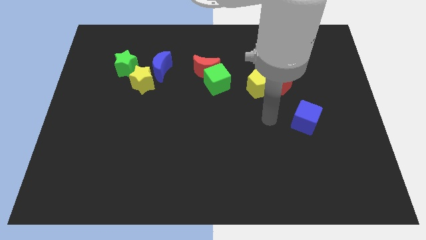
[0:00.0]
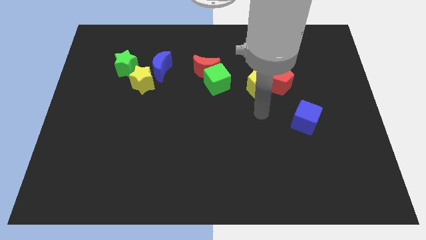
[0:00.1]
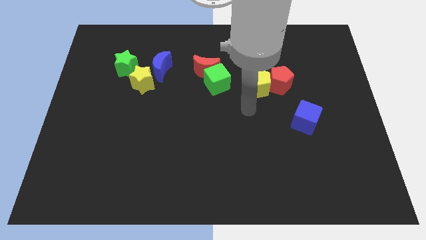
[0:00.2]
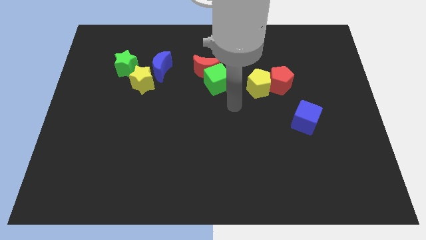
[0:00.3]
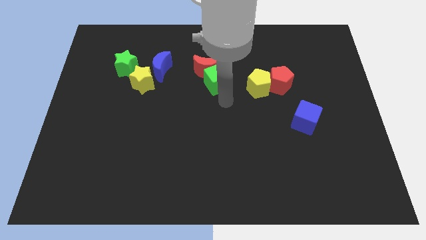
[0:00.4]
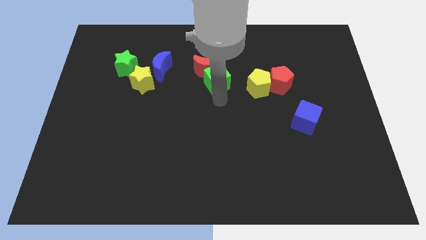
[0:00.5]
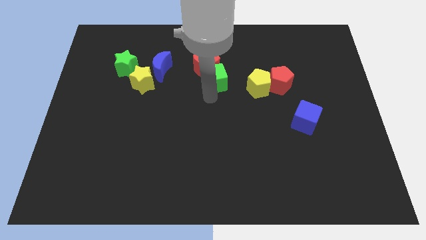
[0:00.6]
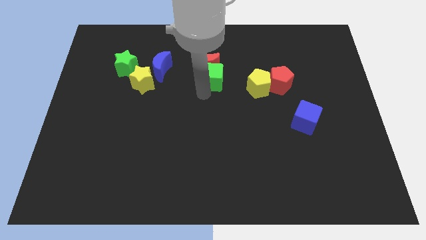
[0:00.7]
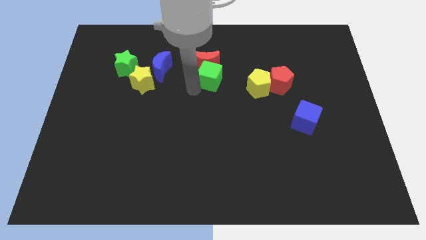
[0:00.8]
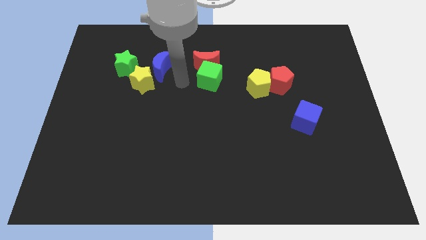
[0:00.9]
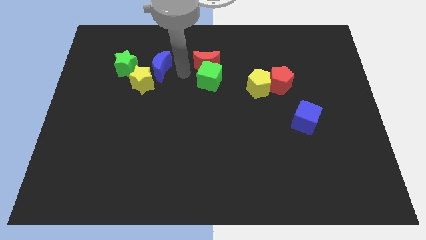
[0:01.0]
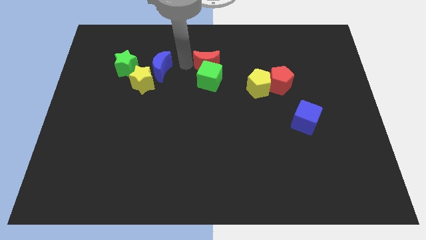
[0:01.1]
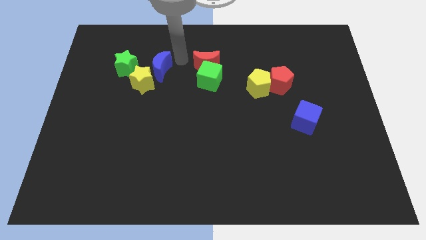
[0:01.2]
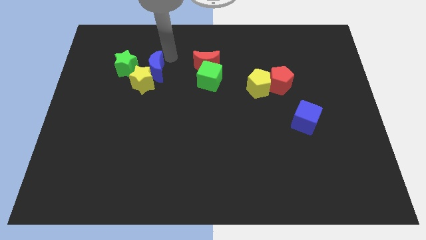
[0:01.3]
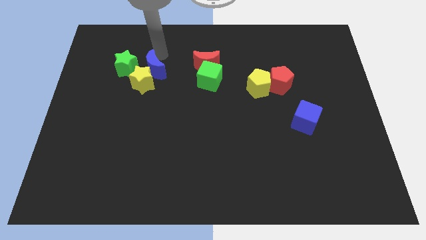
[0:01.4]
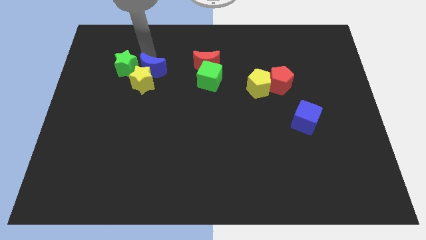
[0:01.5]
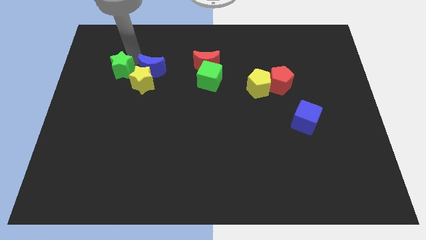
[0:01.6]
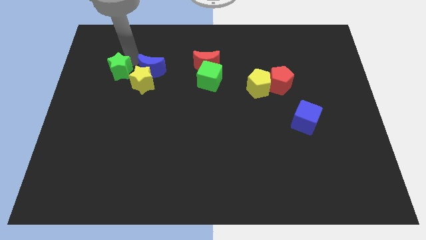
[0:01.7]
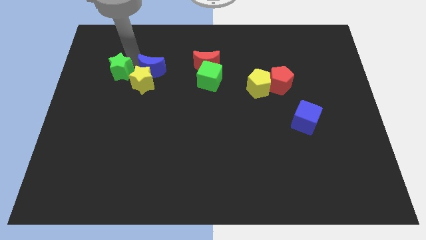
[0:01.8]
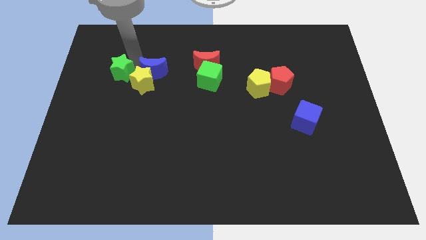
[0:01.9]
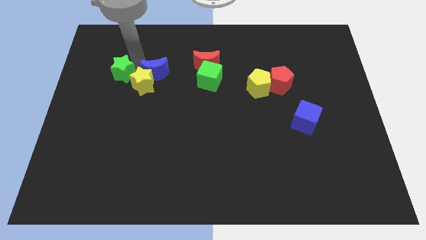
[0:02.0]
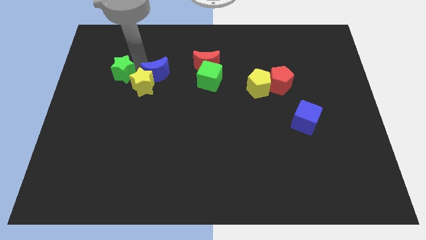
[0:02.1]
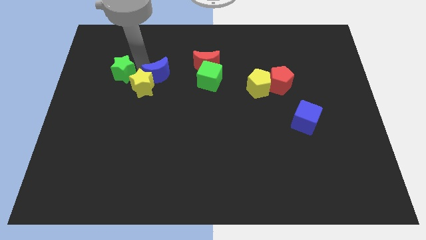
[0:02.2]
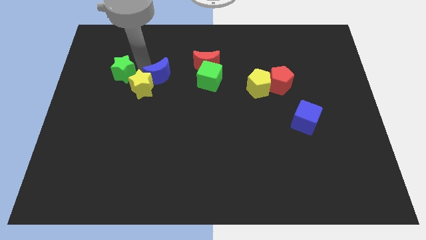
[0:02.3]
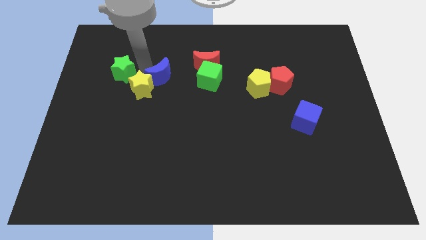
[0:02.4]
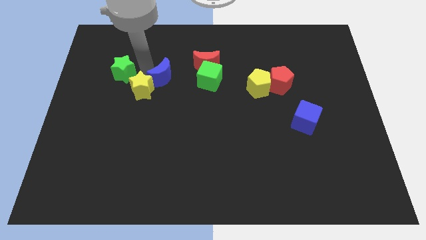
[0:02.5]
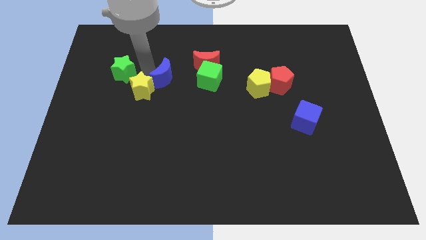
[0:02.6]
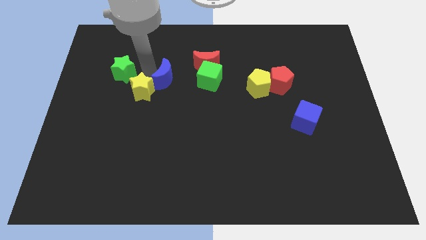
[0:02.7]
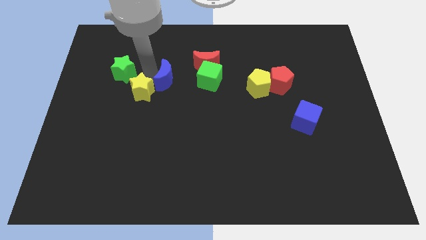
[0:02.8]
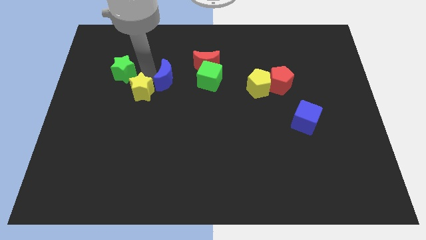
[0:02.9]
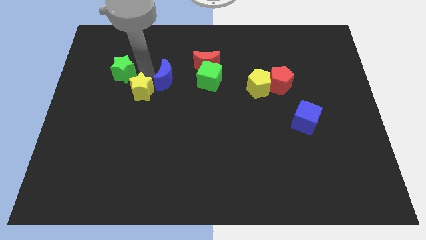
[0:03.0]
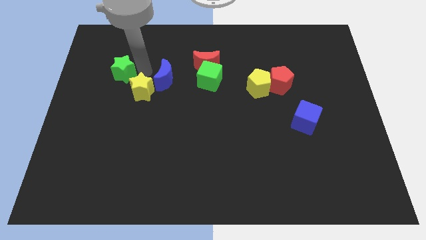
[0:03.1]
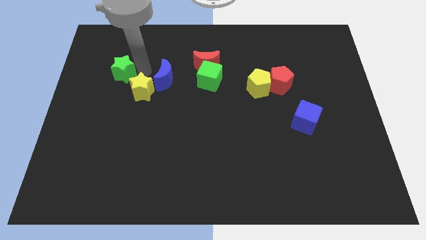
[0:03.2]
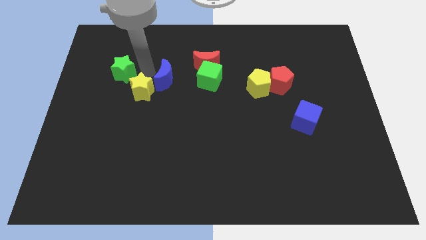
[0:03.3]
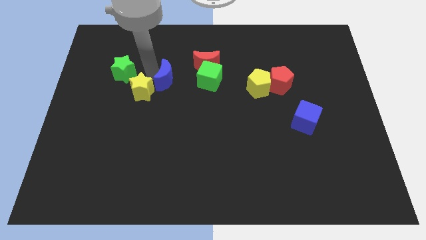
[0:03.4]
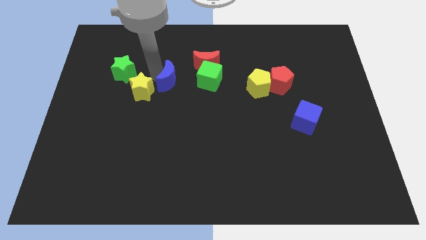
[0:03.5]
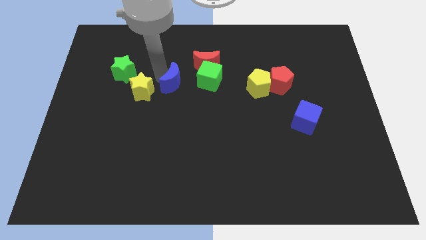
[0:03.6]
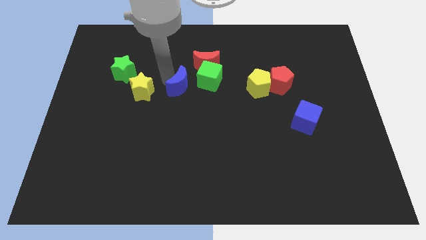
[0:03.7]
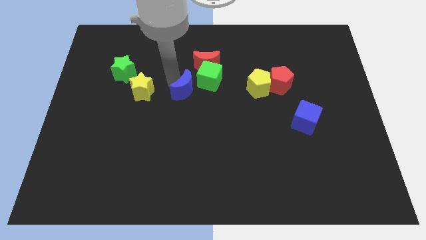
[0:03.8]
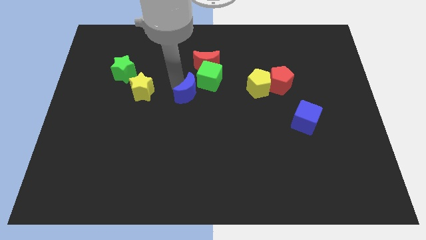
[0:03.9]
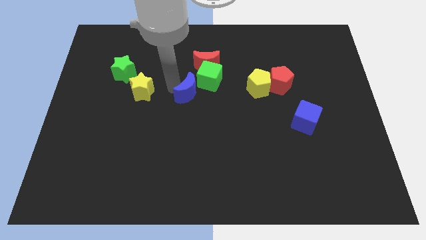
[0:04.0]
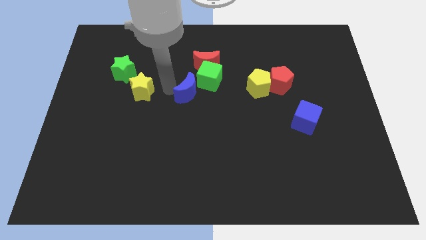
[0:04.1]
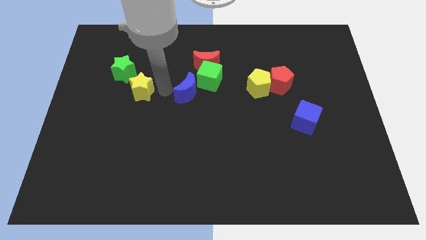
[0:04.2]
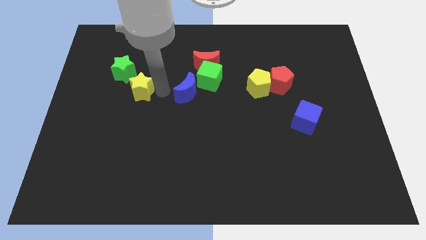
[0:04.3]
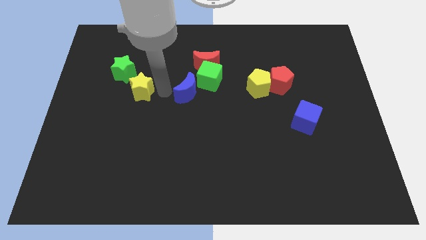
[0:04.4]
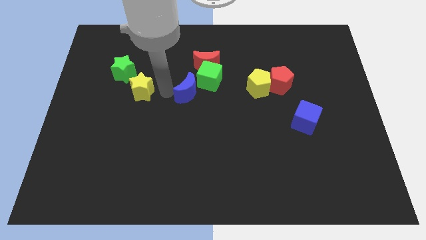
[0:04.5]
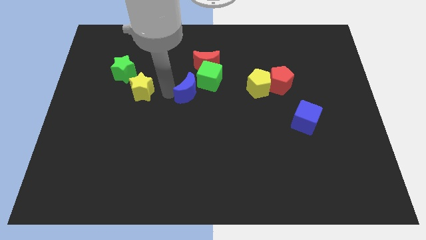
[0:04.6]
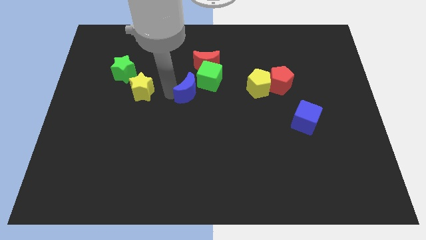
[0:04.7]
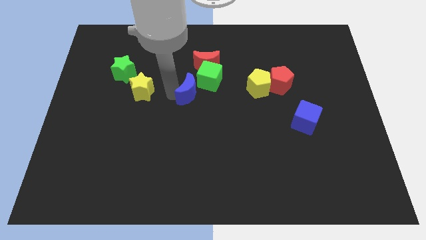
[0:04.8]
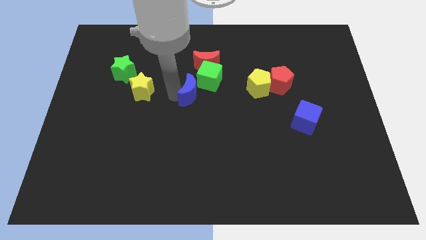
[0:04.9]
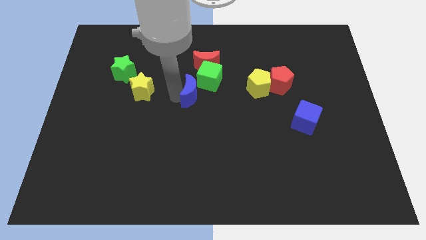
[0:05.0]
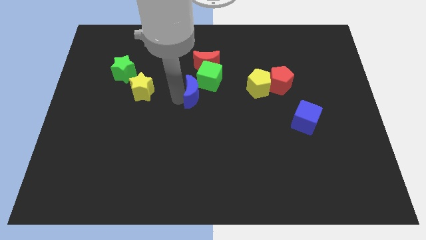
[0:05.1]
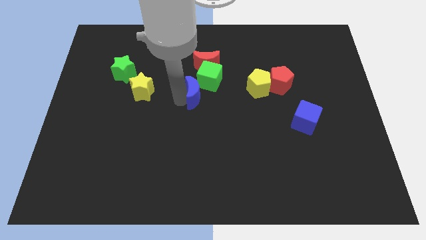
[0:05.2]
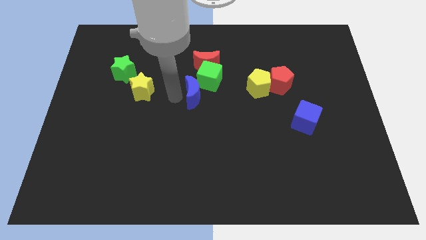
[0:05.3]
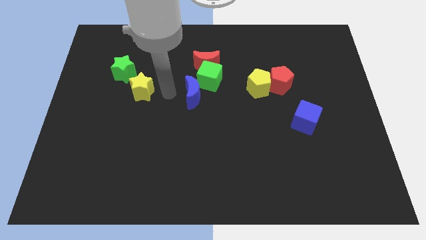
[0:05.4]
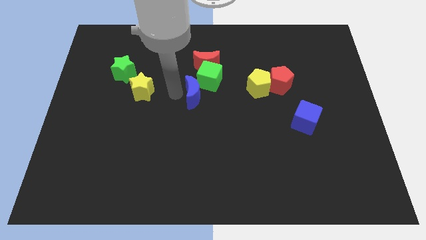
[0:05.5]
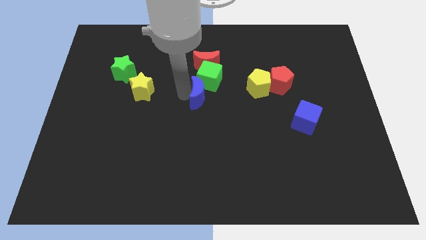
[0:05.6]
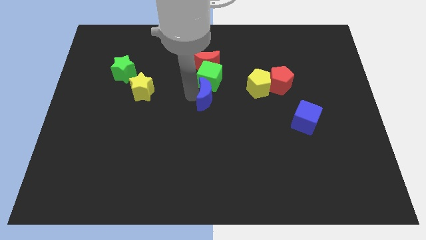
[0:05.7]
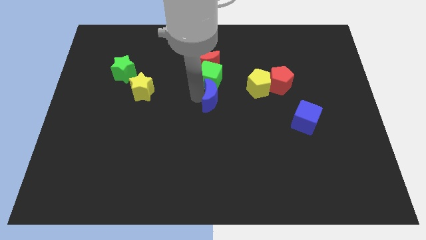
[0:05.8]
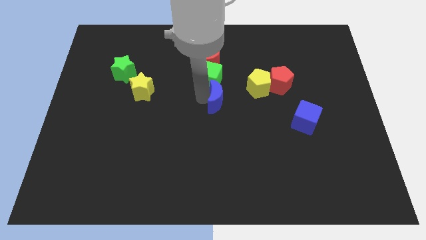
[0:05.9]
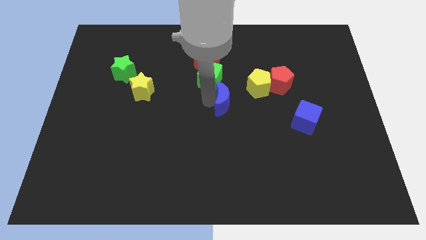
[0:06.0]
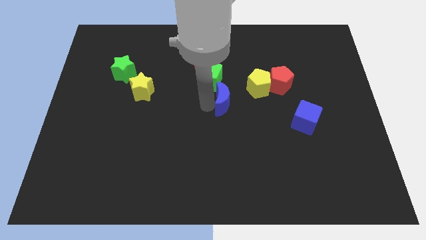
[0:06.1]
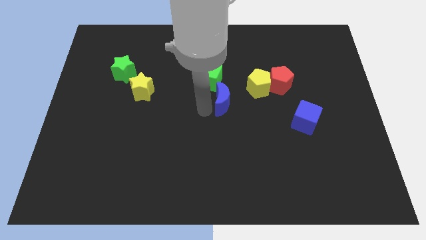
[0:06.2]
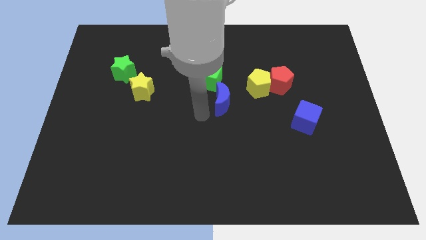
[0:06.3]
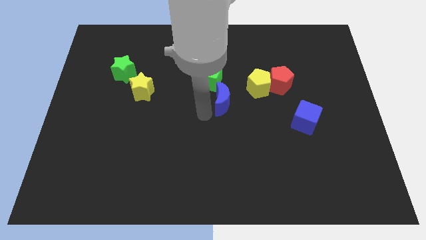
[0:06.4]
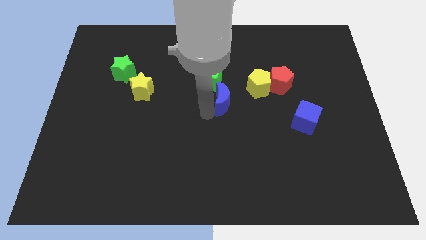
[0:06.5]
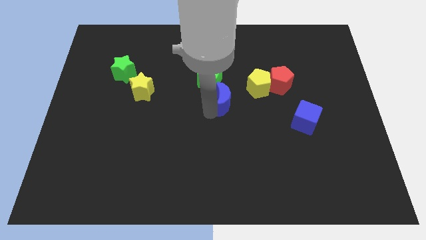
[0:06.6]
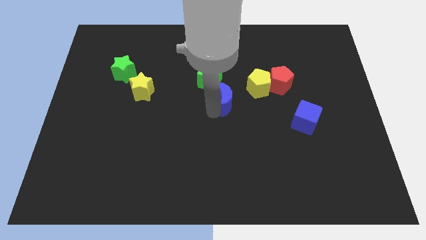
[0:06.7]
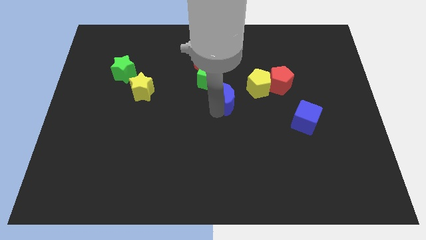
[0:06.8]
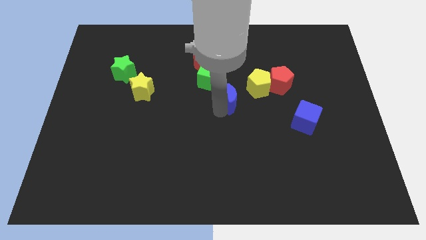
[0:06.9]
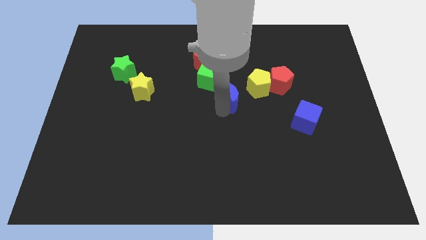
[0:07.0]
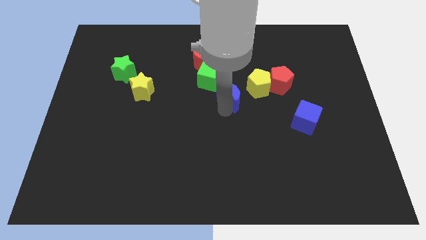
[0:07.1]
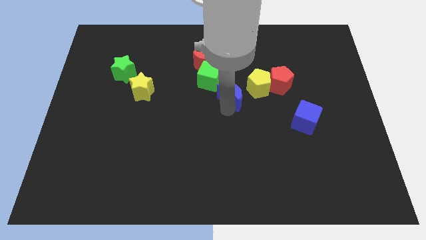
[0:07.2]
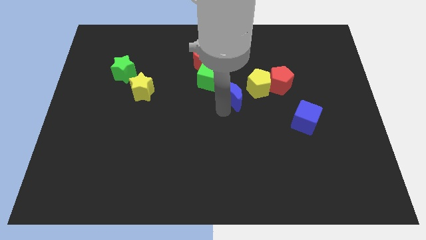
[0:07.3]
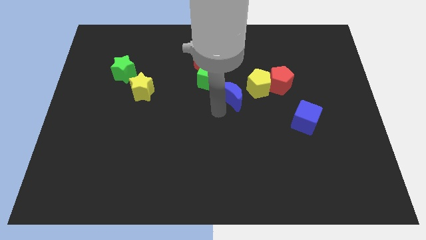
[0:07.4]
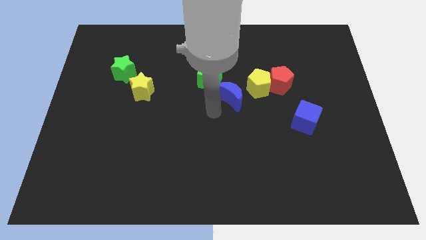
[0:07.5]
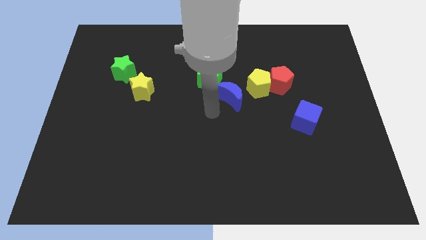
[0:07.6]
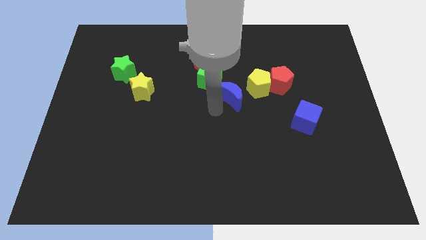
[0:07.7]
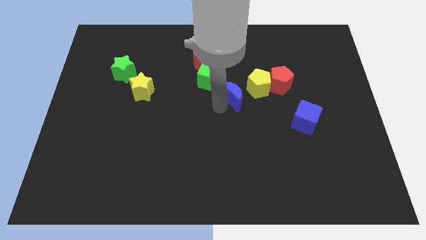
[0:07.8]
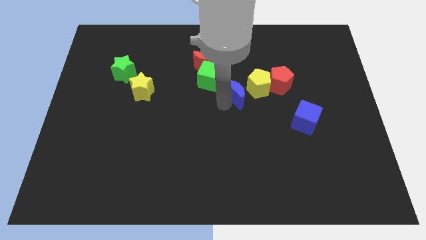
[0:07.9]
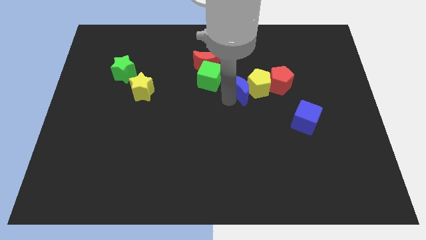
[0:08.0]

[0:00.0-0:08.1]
slide the blue moon to the yellow pentagon
